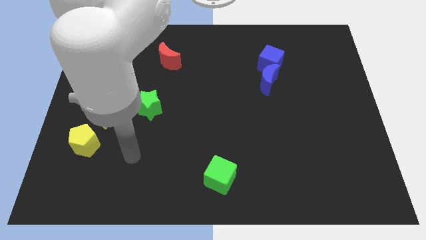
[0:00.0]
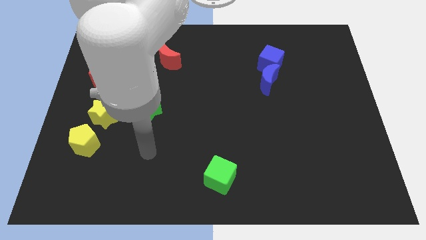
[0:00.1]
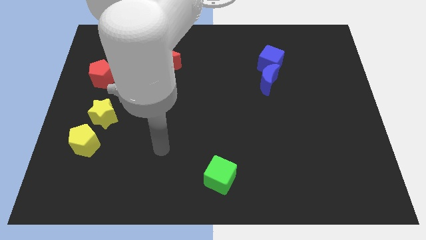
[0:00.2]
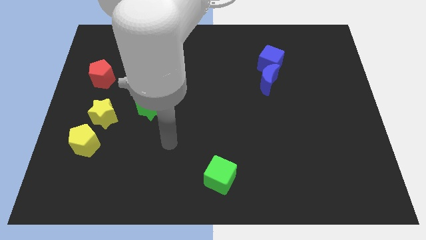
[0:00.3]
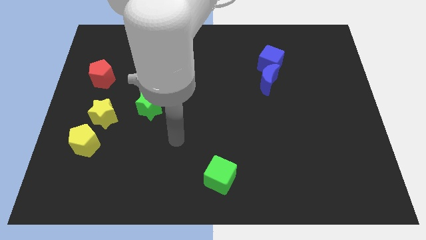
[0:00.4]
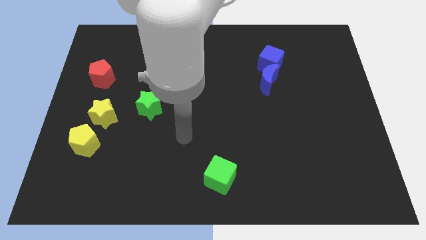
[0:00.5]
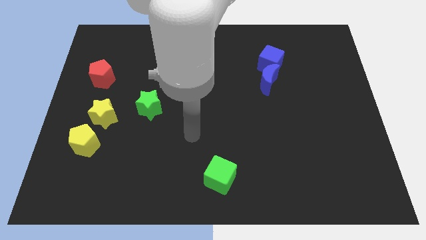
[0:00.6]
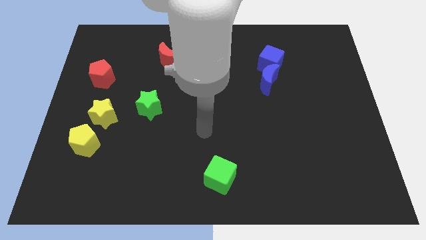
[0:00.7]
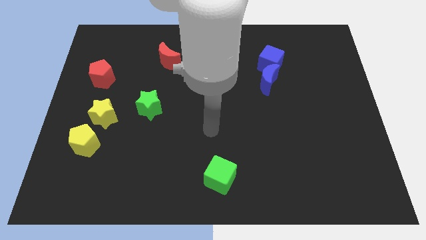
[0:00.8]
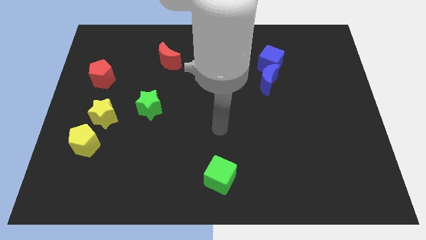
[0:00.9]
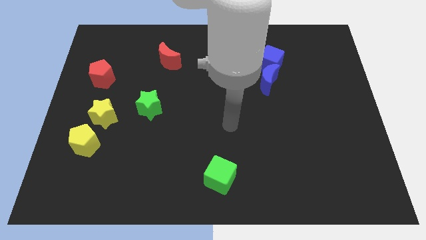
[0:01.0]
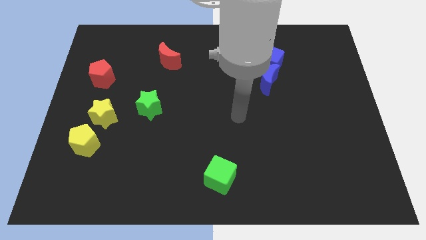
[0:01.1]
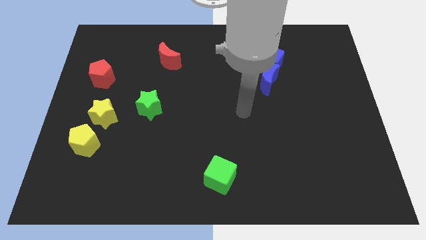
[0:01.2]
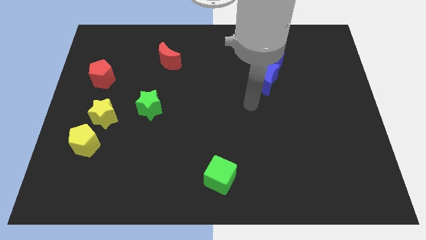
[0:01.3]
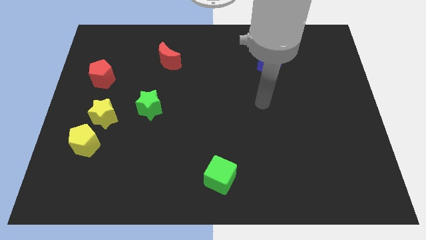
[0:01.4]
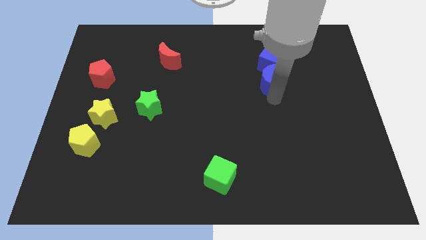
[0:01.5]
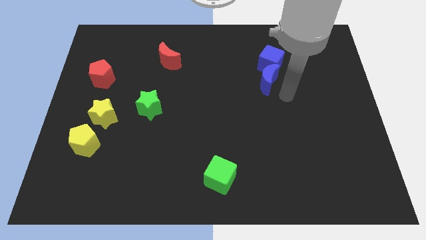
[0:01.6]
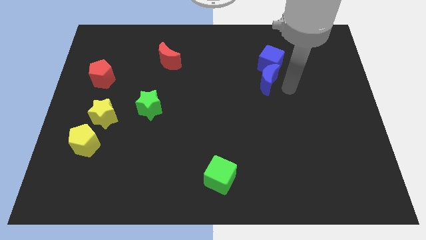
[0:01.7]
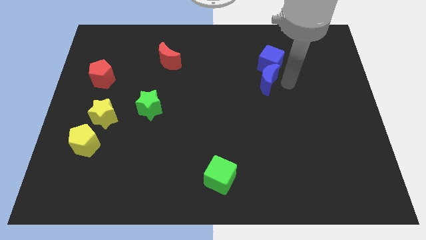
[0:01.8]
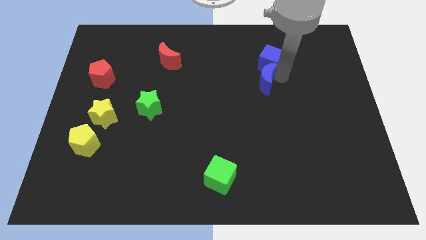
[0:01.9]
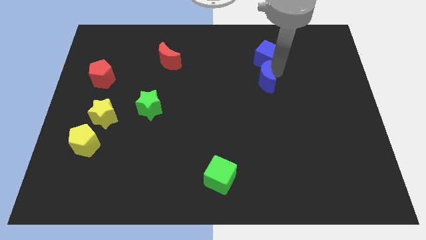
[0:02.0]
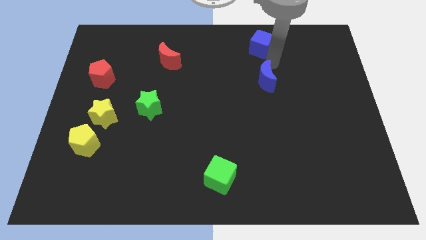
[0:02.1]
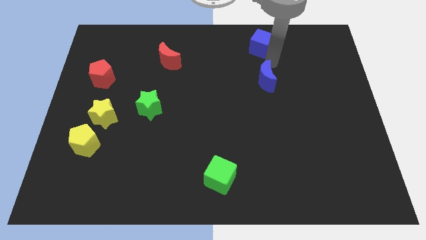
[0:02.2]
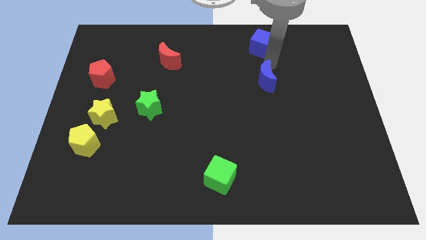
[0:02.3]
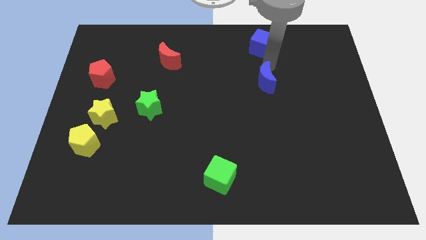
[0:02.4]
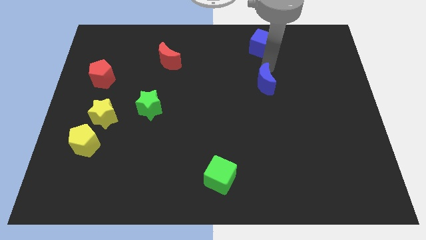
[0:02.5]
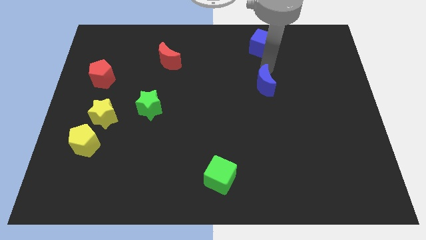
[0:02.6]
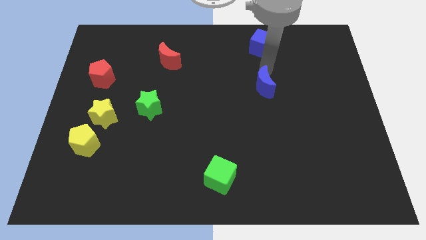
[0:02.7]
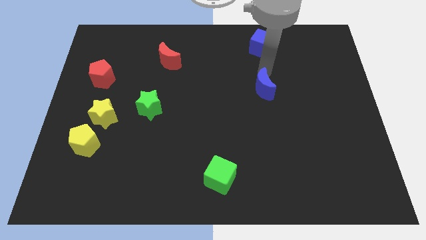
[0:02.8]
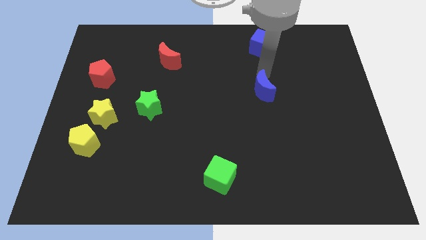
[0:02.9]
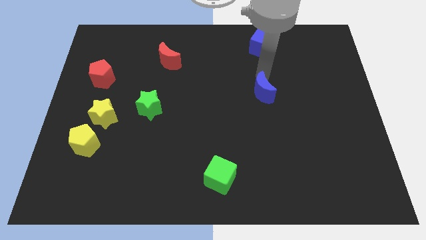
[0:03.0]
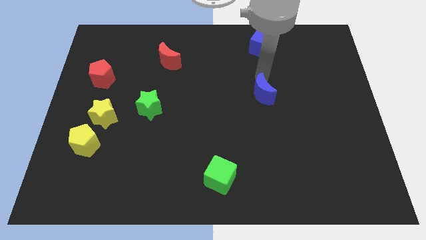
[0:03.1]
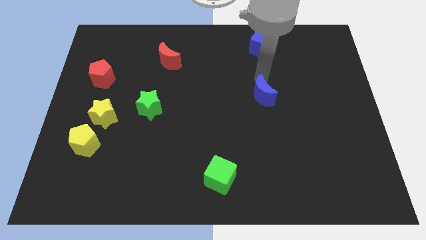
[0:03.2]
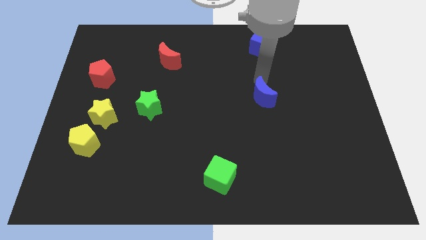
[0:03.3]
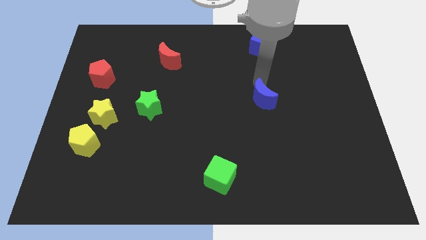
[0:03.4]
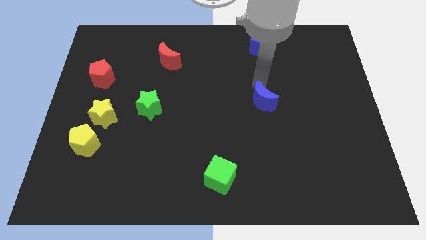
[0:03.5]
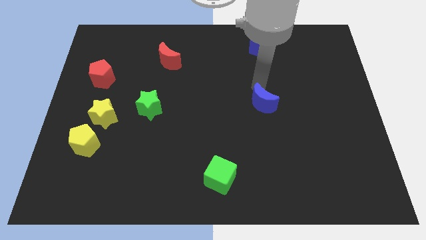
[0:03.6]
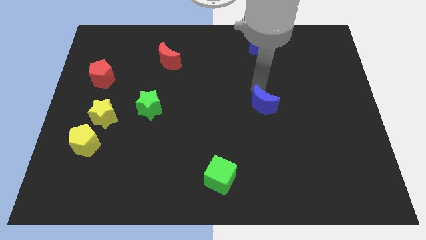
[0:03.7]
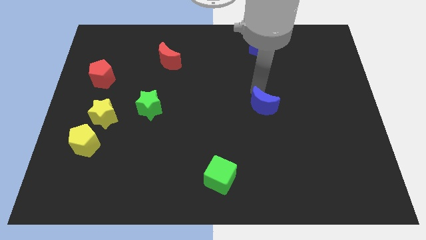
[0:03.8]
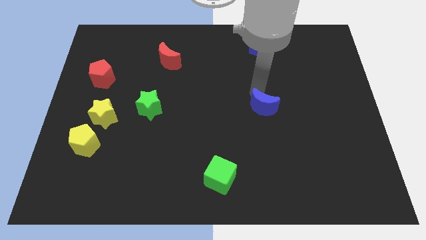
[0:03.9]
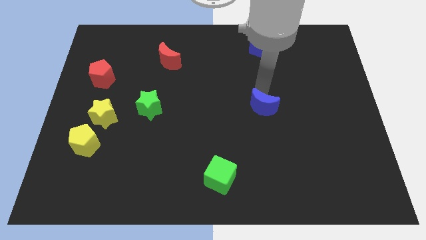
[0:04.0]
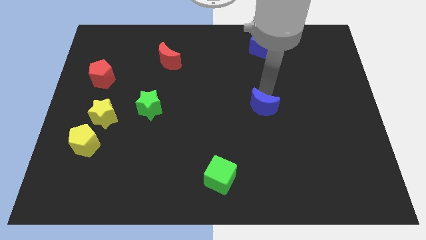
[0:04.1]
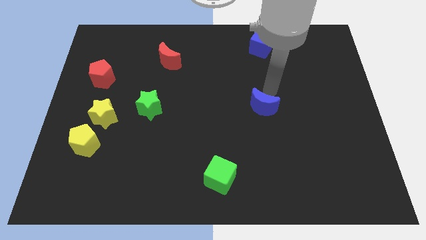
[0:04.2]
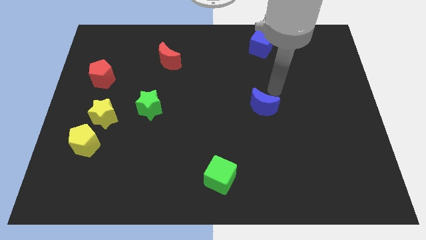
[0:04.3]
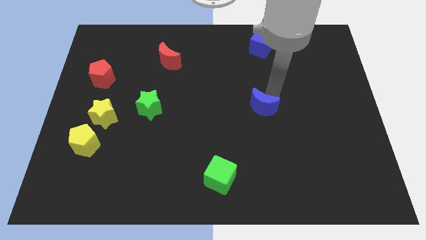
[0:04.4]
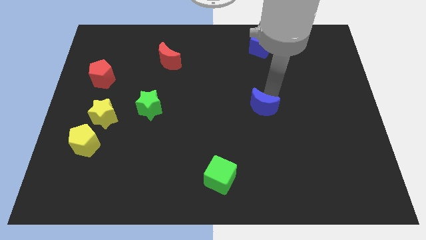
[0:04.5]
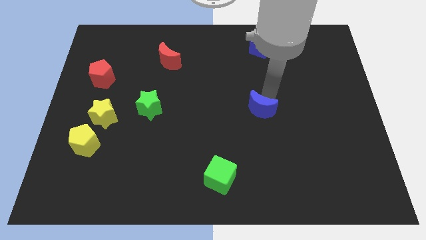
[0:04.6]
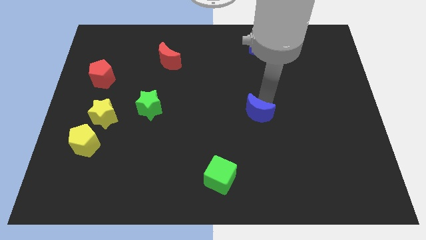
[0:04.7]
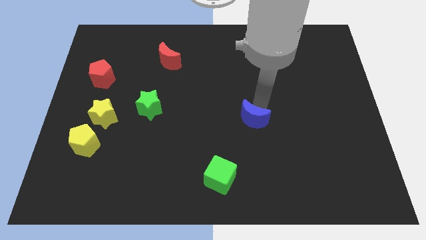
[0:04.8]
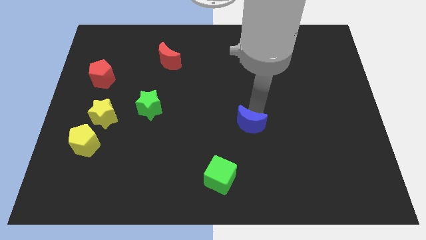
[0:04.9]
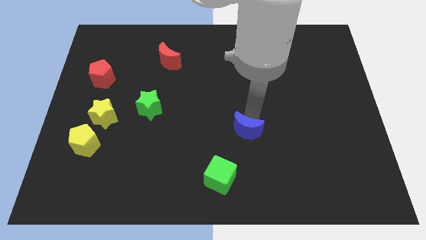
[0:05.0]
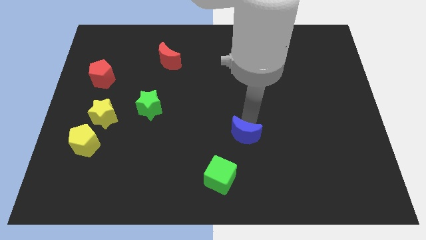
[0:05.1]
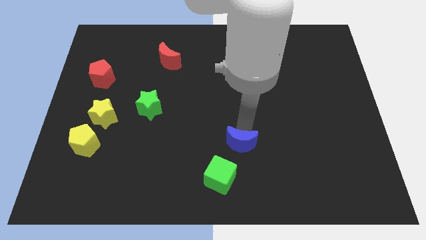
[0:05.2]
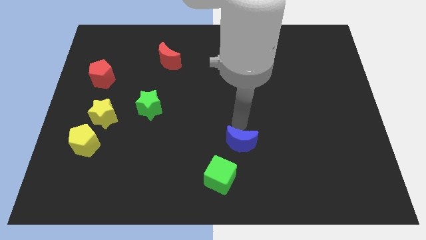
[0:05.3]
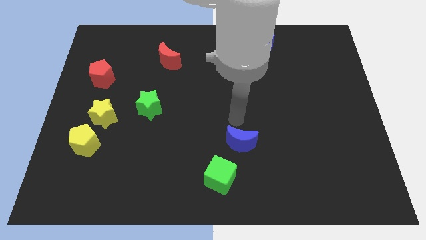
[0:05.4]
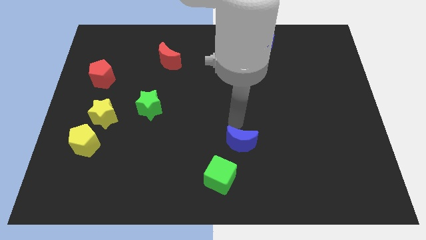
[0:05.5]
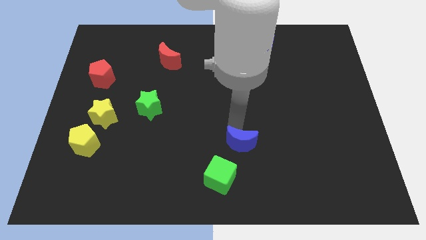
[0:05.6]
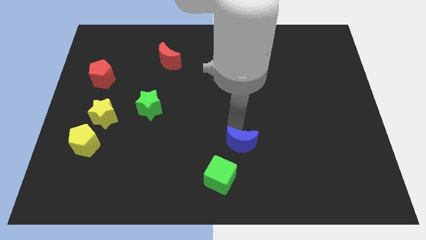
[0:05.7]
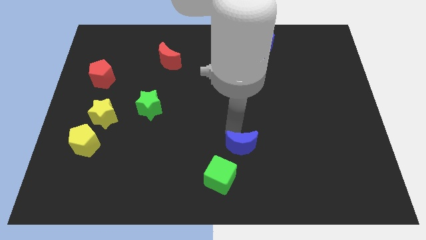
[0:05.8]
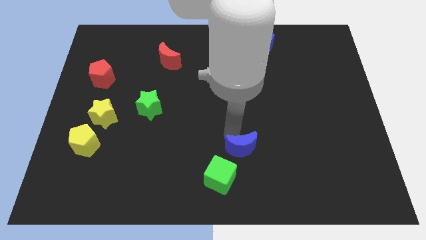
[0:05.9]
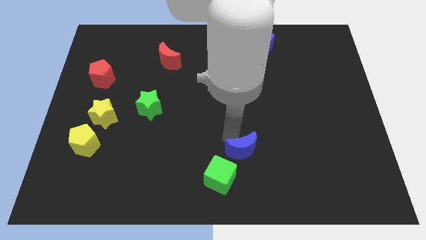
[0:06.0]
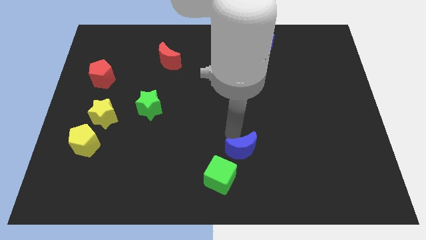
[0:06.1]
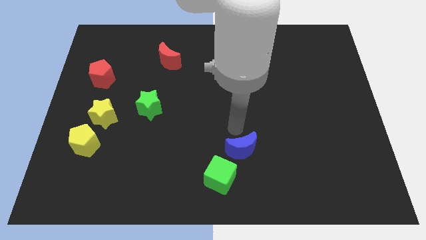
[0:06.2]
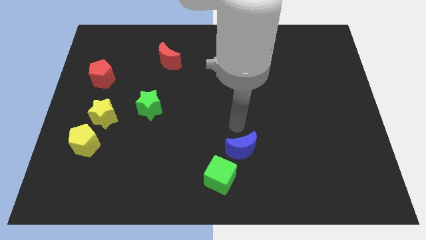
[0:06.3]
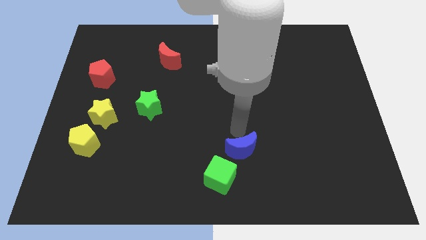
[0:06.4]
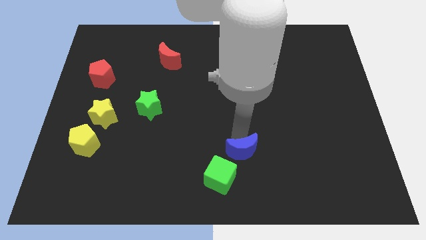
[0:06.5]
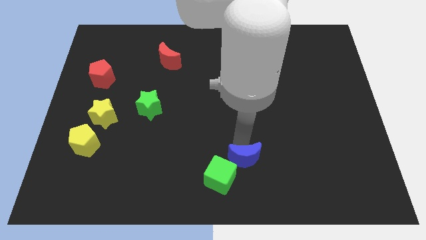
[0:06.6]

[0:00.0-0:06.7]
move the blue moon to the bottom side
